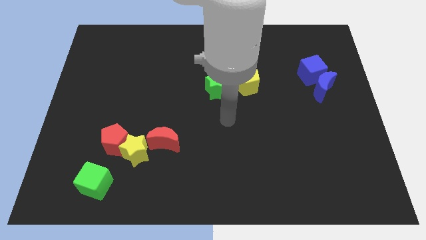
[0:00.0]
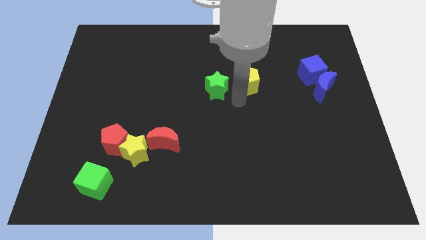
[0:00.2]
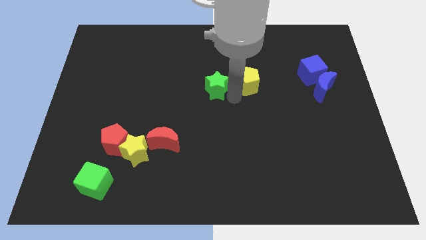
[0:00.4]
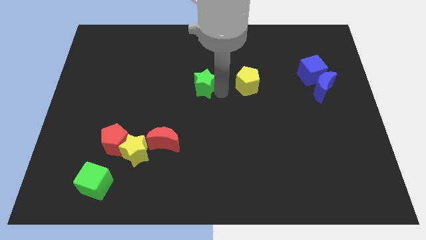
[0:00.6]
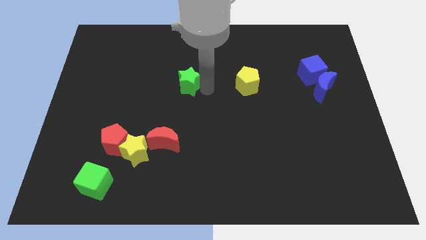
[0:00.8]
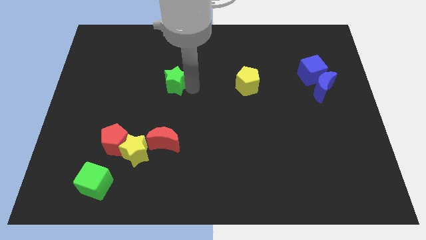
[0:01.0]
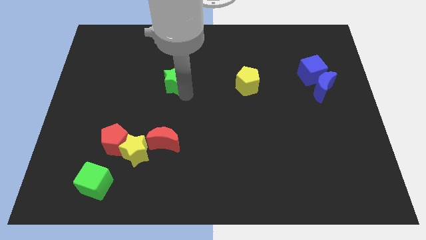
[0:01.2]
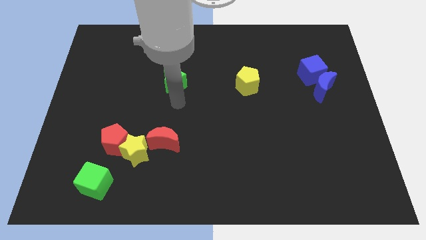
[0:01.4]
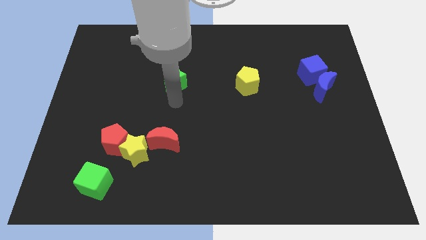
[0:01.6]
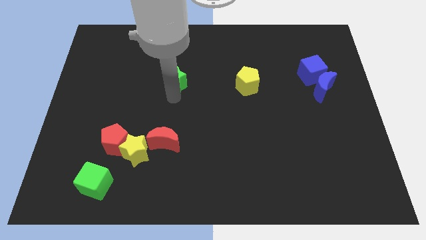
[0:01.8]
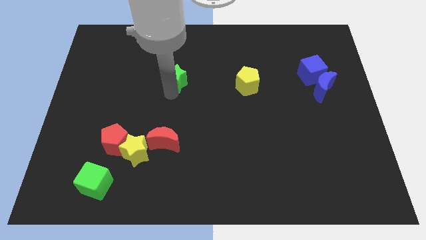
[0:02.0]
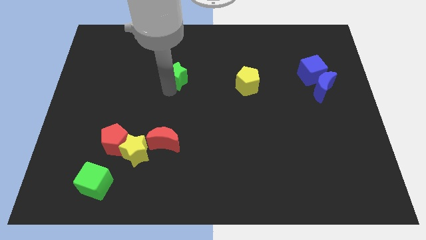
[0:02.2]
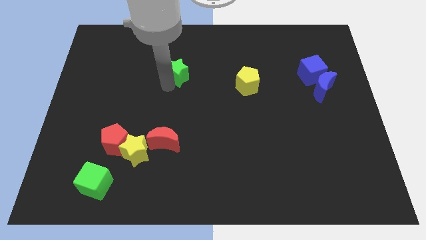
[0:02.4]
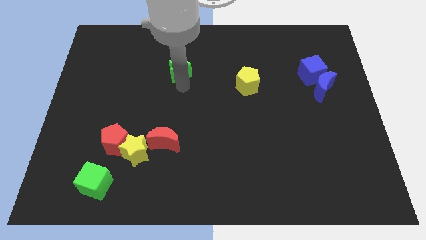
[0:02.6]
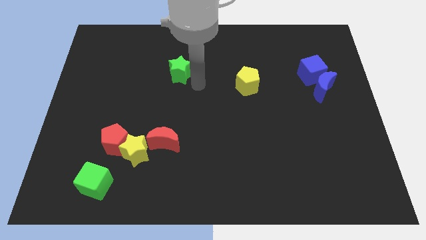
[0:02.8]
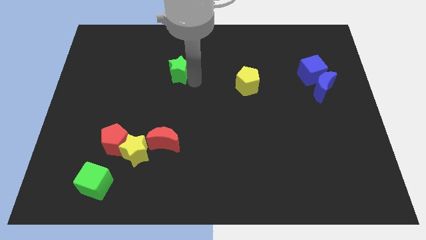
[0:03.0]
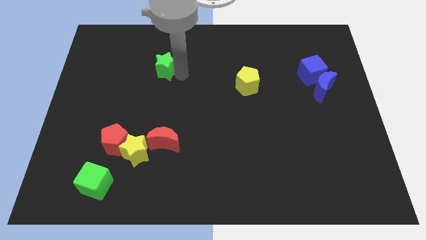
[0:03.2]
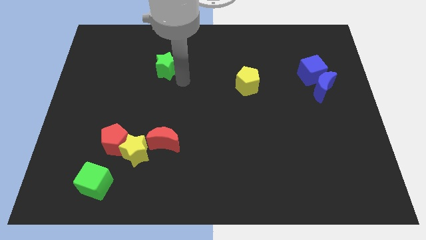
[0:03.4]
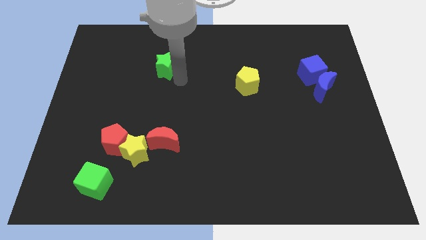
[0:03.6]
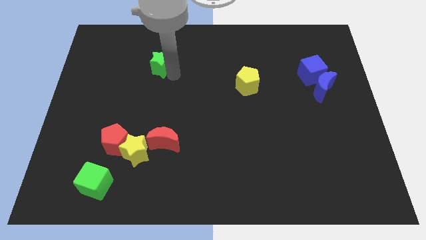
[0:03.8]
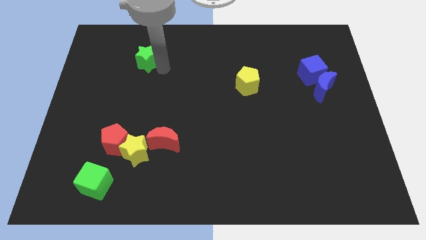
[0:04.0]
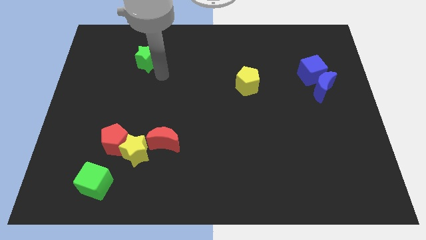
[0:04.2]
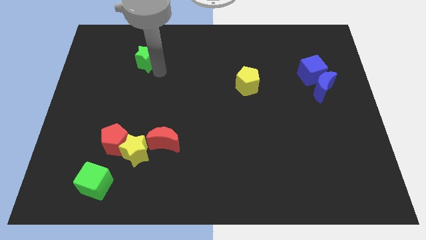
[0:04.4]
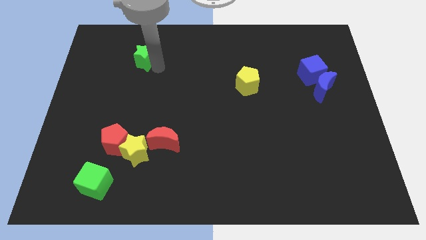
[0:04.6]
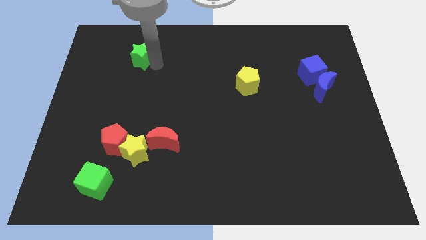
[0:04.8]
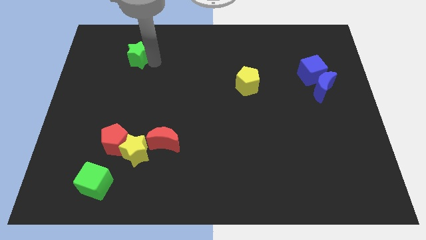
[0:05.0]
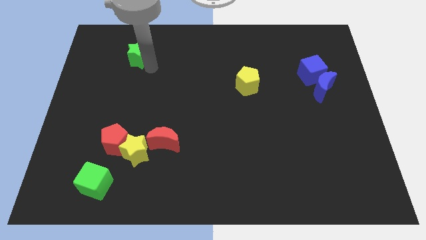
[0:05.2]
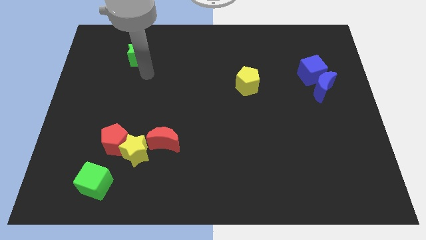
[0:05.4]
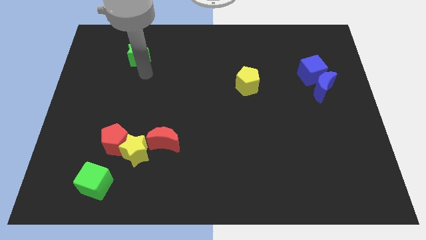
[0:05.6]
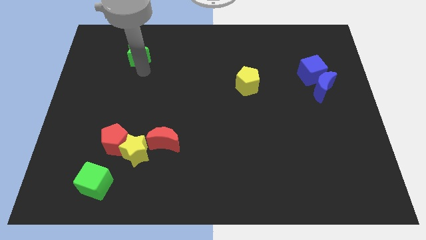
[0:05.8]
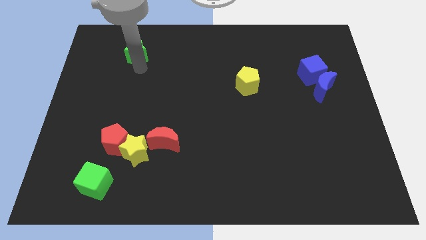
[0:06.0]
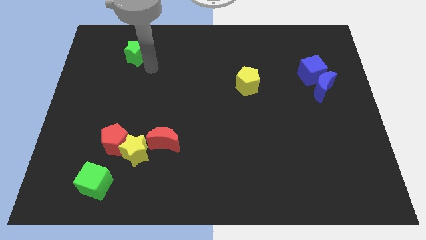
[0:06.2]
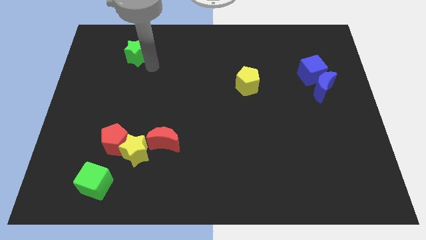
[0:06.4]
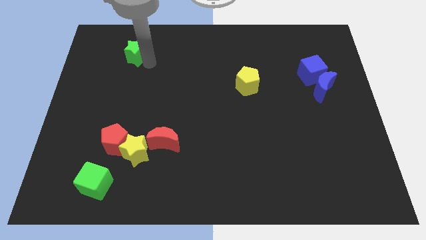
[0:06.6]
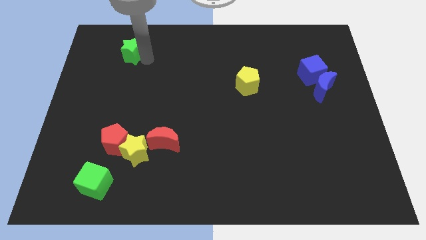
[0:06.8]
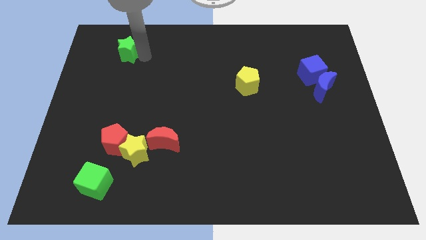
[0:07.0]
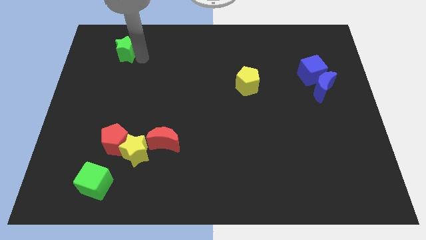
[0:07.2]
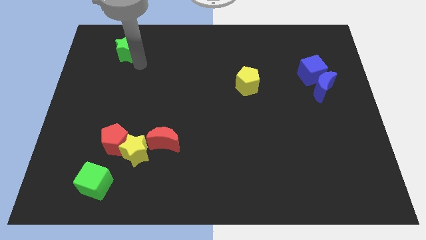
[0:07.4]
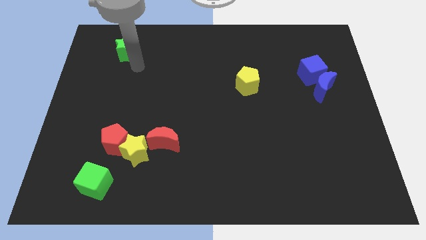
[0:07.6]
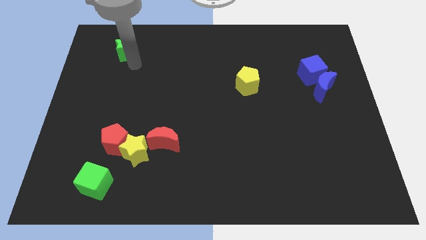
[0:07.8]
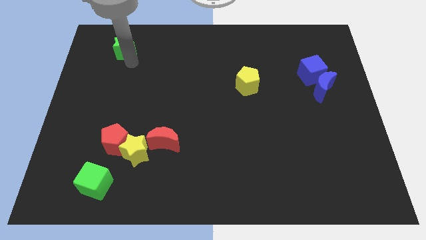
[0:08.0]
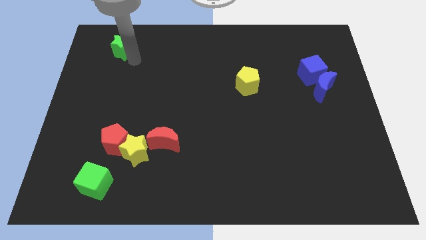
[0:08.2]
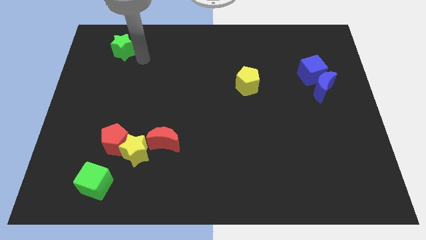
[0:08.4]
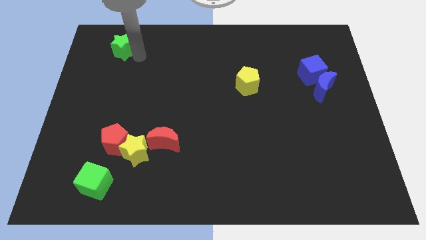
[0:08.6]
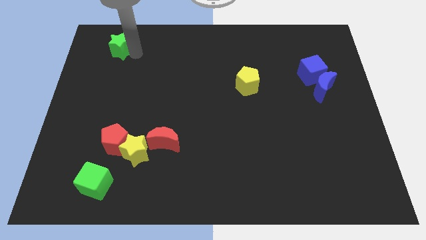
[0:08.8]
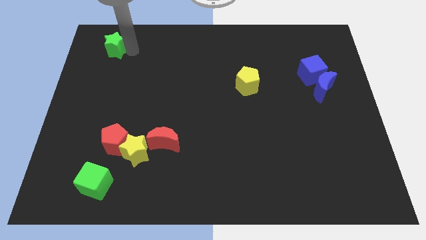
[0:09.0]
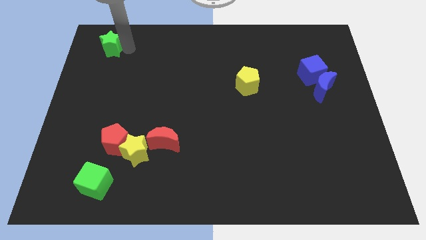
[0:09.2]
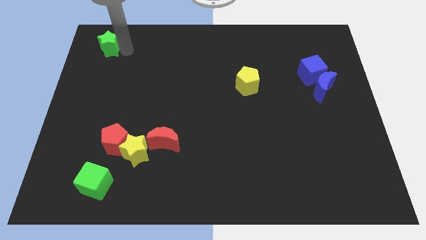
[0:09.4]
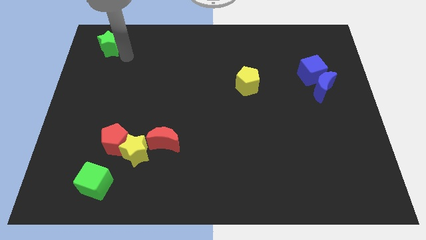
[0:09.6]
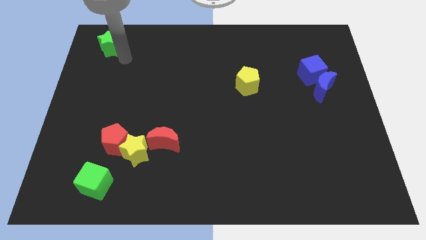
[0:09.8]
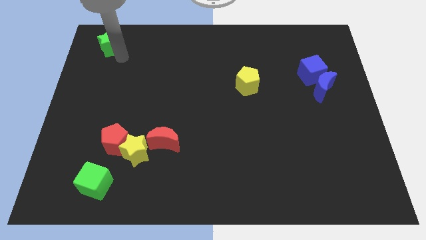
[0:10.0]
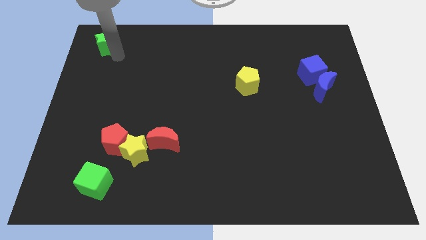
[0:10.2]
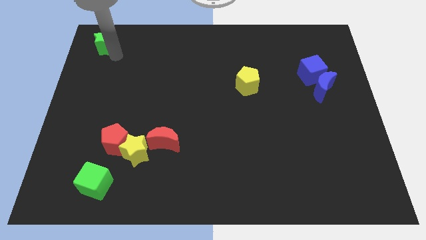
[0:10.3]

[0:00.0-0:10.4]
put the green star to the top left

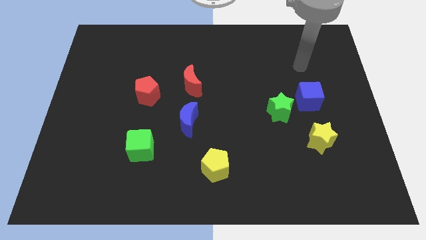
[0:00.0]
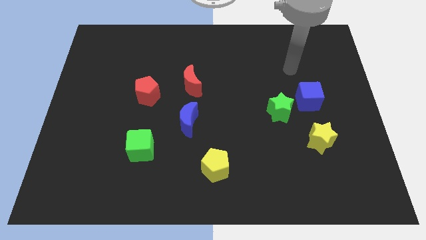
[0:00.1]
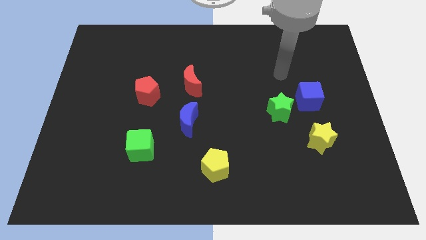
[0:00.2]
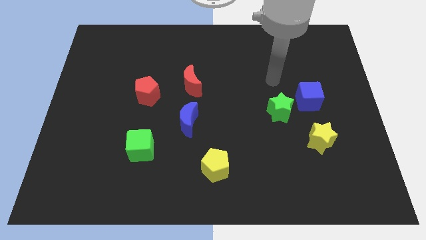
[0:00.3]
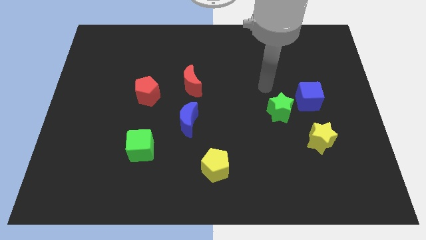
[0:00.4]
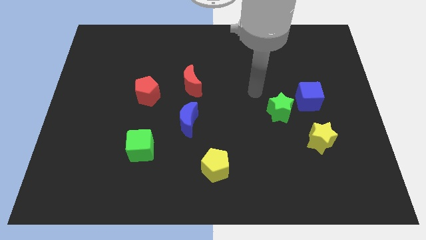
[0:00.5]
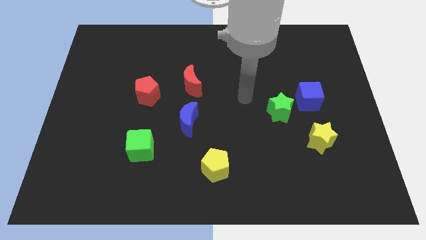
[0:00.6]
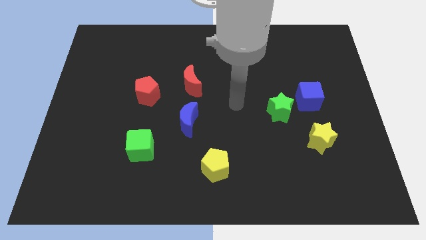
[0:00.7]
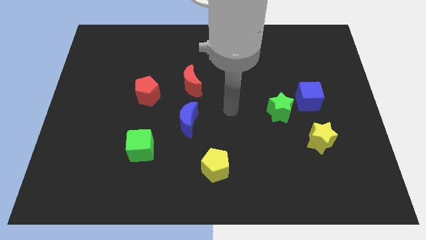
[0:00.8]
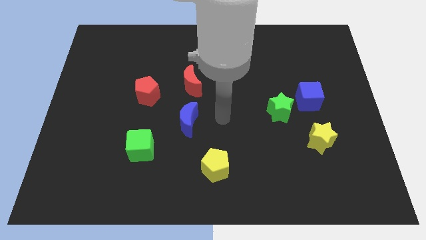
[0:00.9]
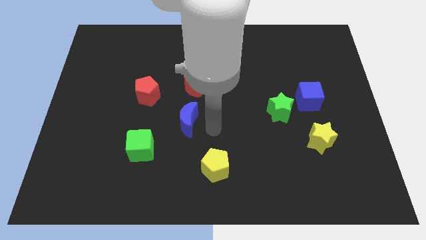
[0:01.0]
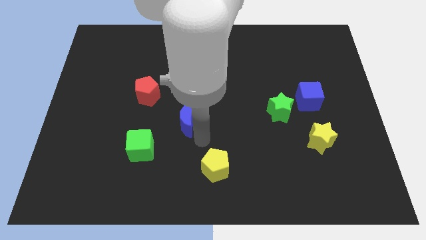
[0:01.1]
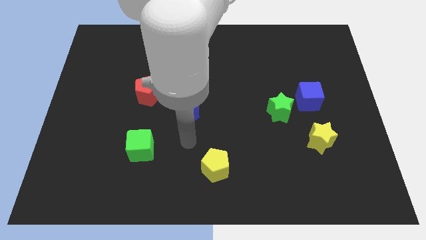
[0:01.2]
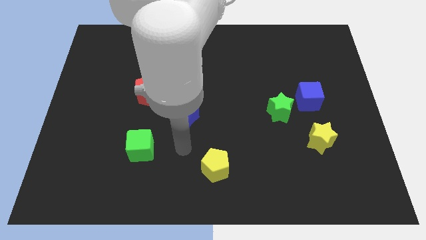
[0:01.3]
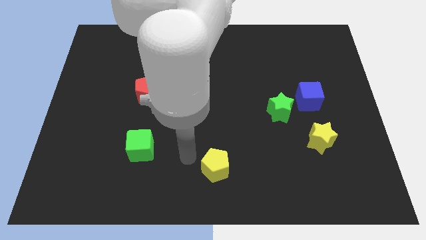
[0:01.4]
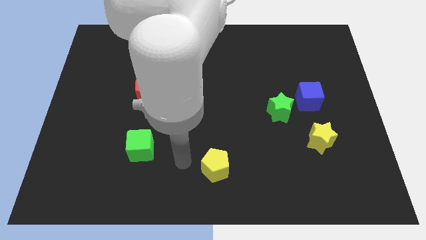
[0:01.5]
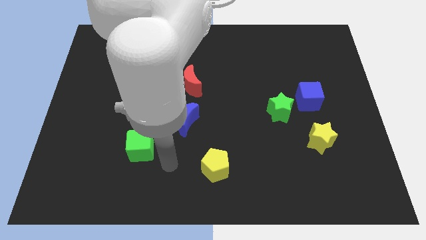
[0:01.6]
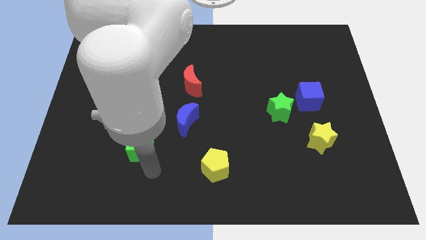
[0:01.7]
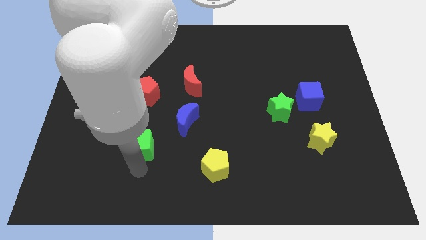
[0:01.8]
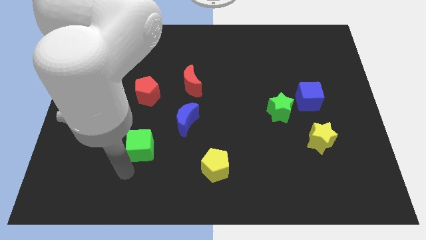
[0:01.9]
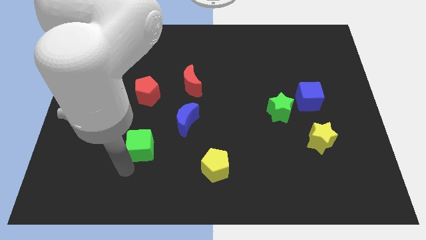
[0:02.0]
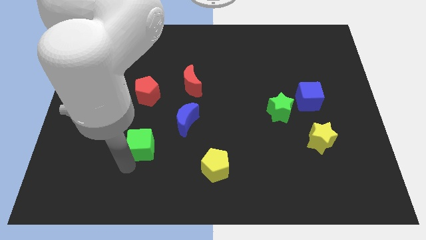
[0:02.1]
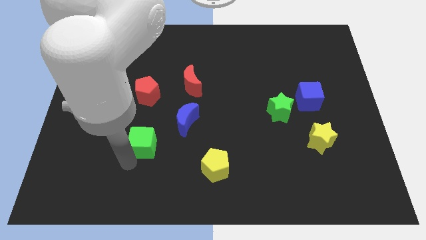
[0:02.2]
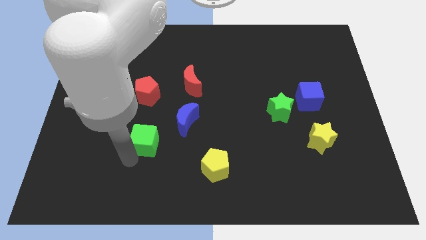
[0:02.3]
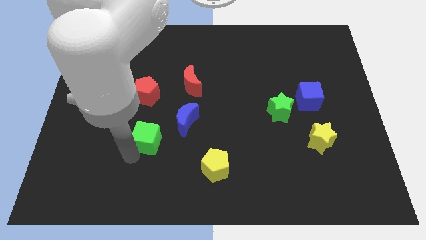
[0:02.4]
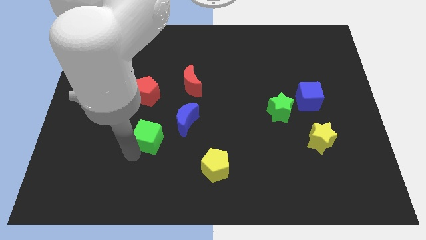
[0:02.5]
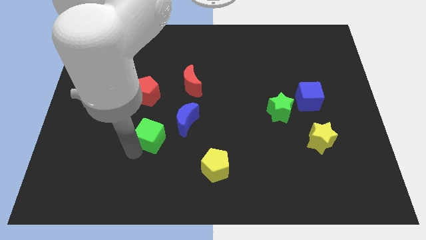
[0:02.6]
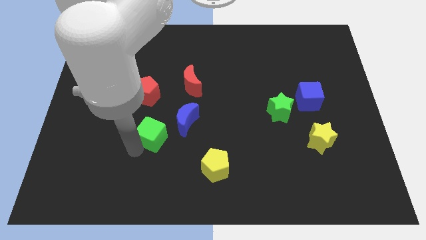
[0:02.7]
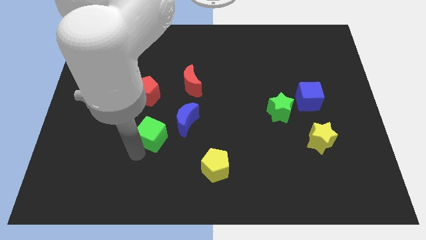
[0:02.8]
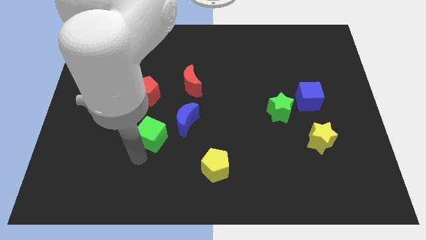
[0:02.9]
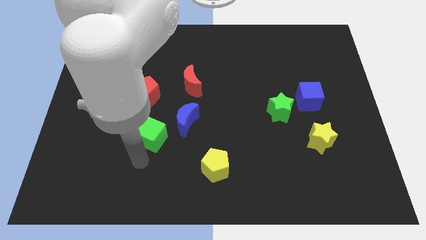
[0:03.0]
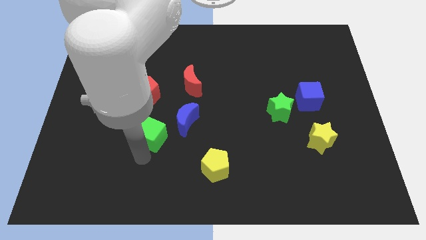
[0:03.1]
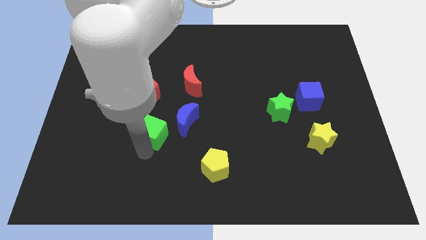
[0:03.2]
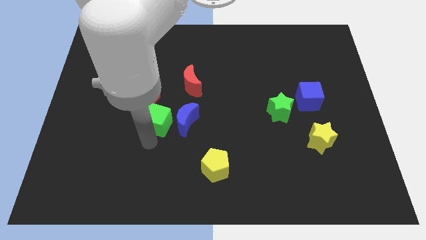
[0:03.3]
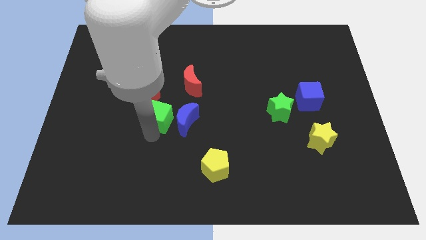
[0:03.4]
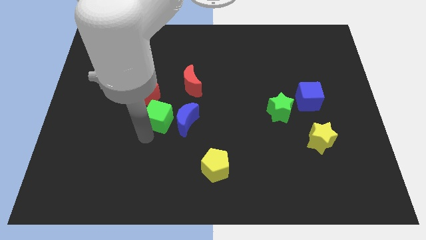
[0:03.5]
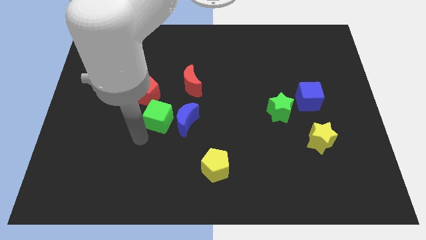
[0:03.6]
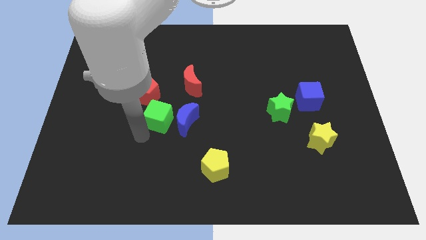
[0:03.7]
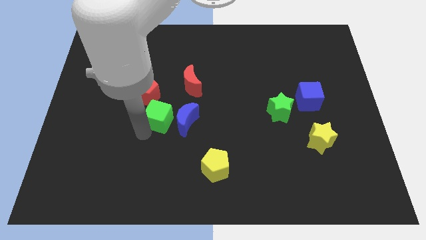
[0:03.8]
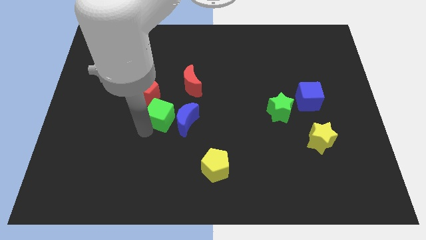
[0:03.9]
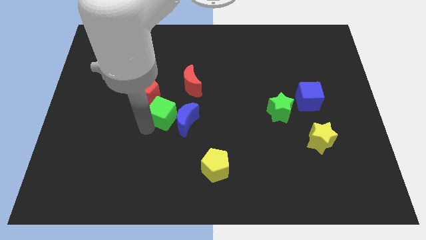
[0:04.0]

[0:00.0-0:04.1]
move the green cube to the center
